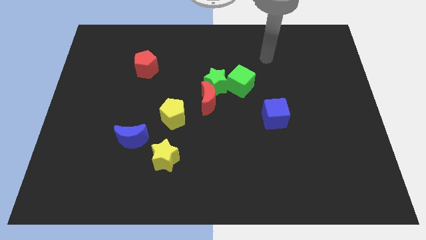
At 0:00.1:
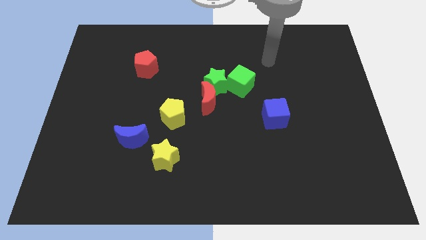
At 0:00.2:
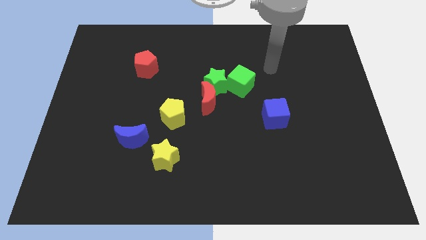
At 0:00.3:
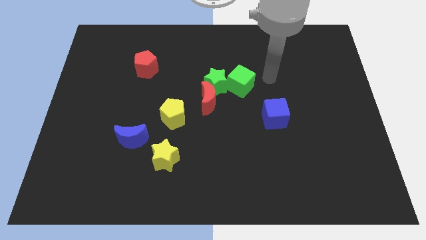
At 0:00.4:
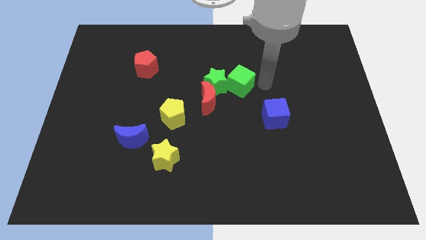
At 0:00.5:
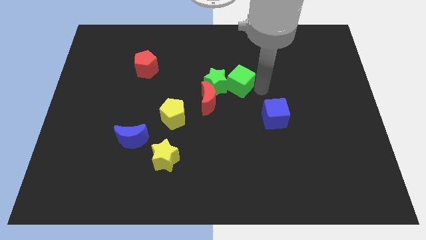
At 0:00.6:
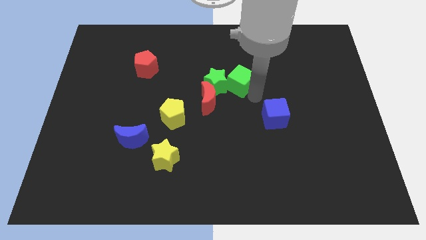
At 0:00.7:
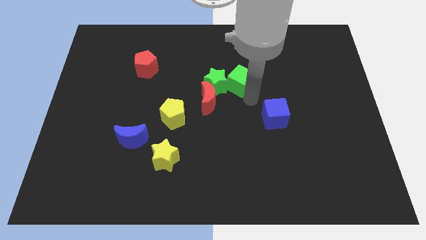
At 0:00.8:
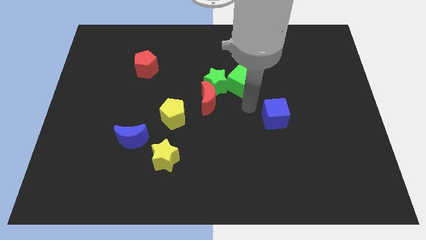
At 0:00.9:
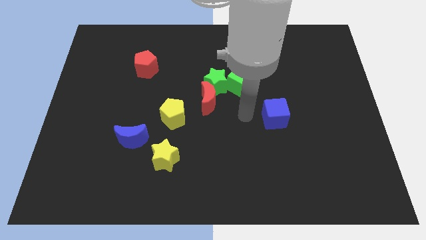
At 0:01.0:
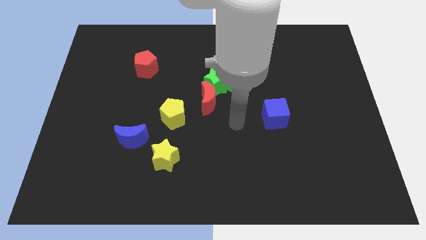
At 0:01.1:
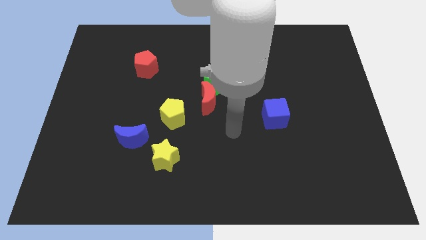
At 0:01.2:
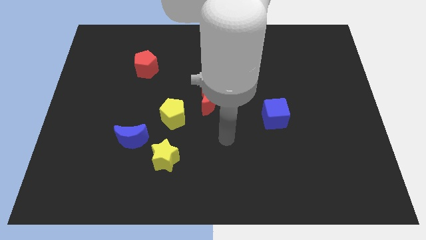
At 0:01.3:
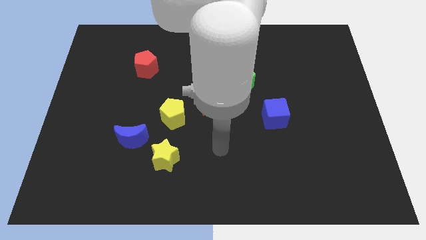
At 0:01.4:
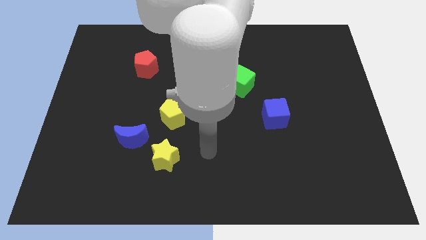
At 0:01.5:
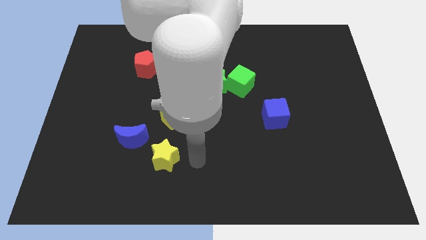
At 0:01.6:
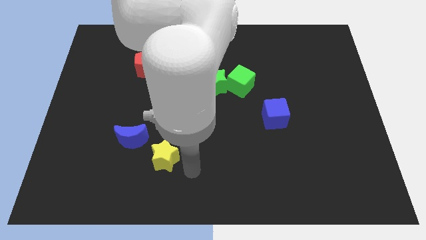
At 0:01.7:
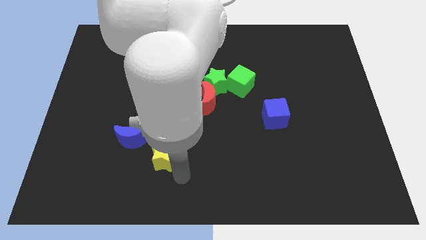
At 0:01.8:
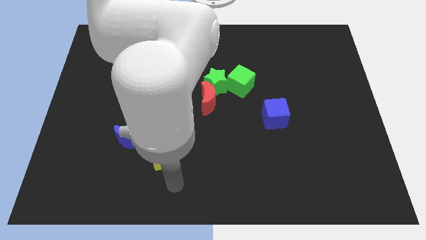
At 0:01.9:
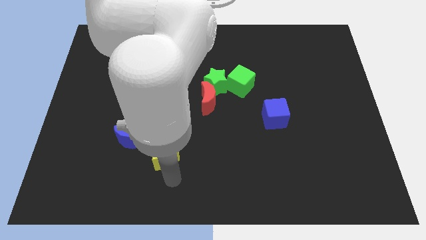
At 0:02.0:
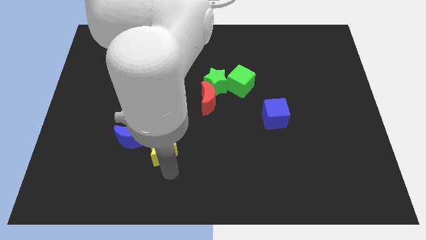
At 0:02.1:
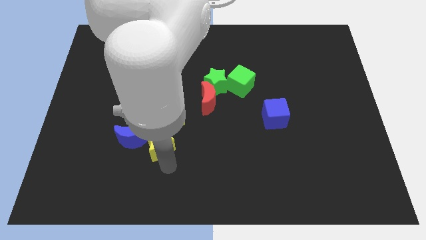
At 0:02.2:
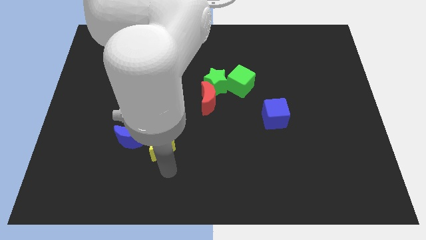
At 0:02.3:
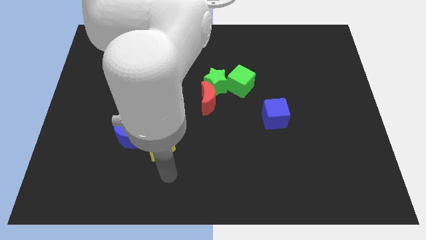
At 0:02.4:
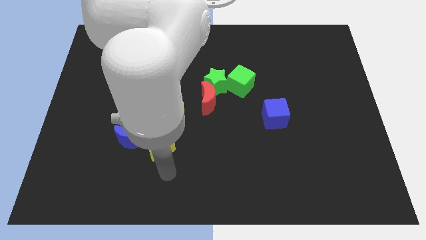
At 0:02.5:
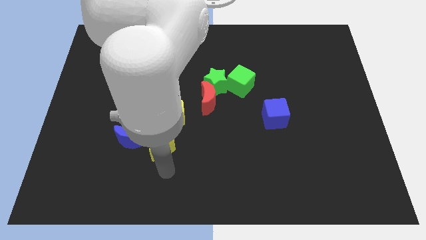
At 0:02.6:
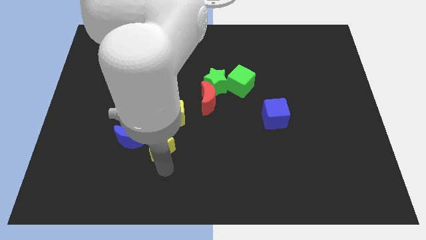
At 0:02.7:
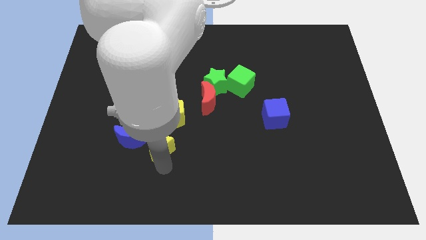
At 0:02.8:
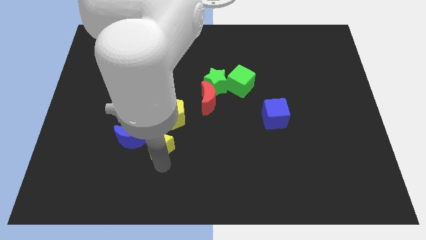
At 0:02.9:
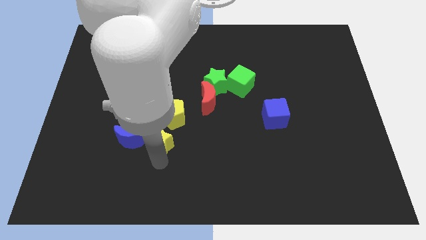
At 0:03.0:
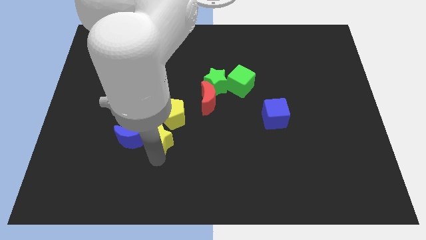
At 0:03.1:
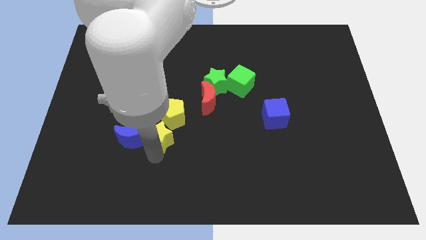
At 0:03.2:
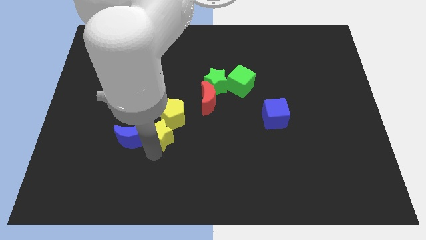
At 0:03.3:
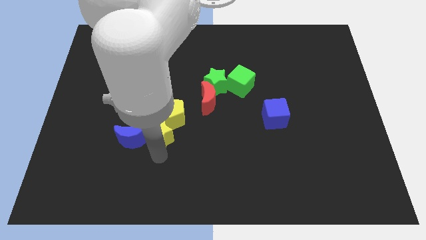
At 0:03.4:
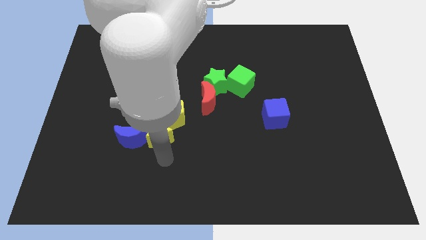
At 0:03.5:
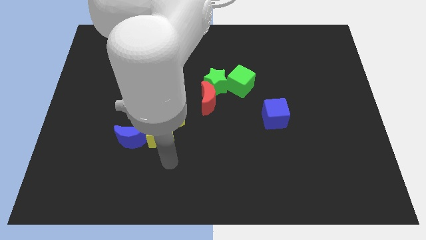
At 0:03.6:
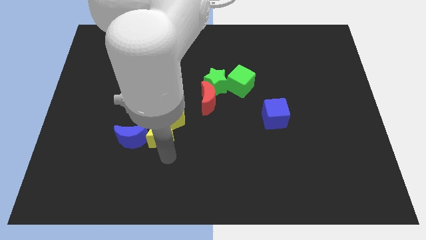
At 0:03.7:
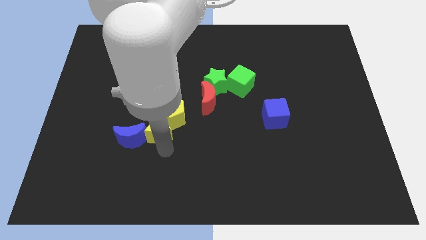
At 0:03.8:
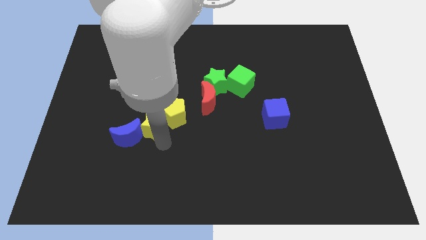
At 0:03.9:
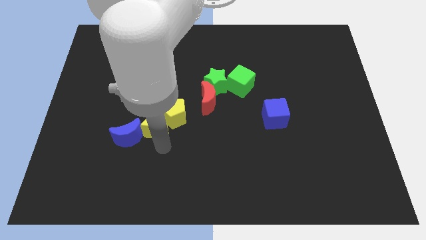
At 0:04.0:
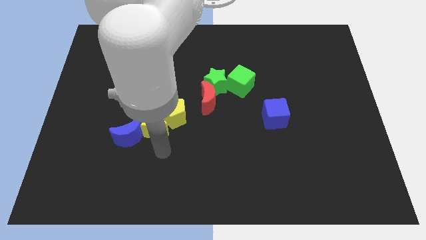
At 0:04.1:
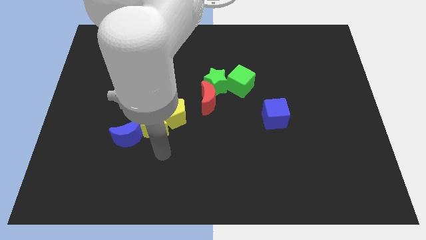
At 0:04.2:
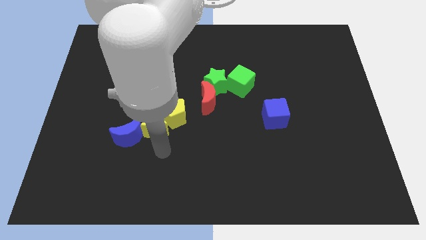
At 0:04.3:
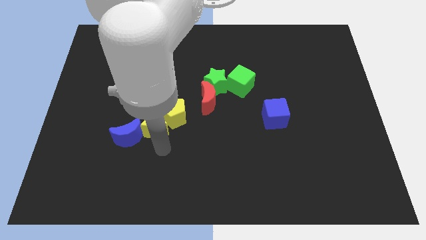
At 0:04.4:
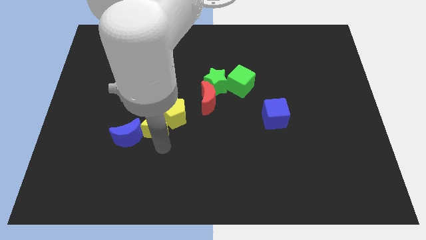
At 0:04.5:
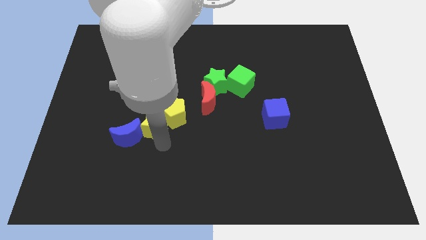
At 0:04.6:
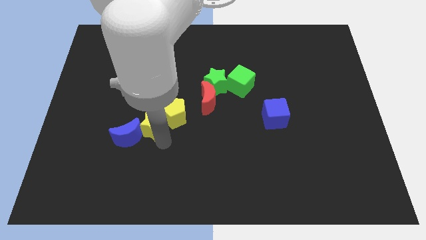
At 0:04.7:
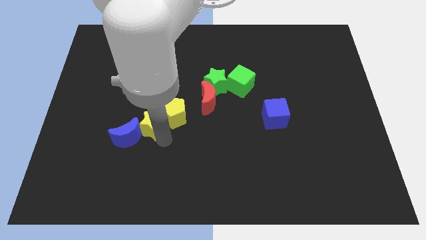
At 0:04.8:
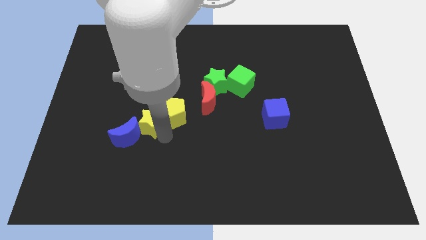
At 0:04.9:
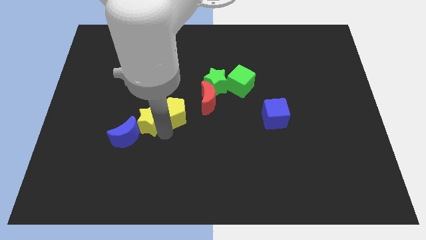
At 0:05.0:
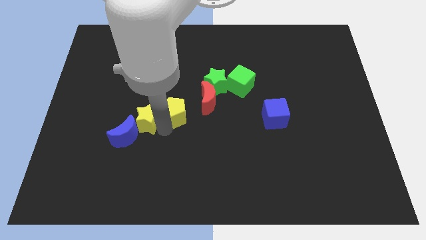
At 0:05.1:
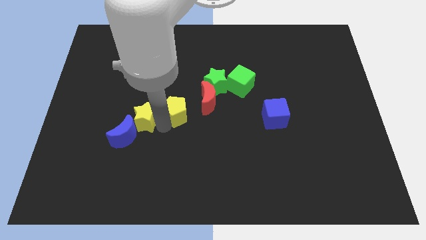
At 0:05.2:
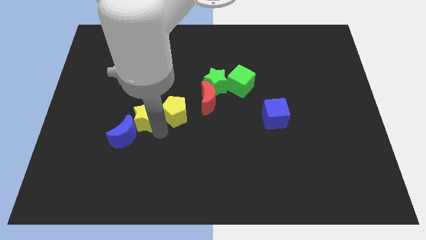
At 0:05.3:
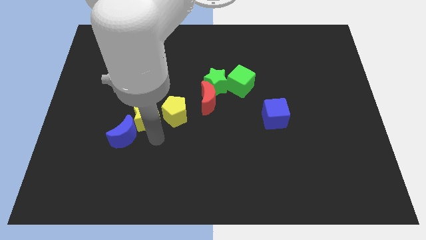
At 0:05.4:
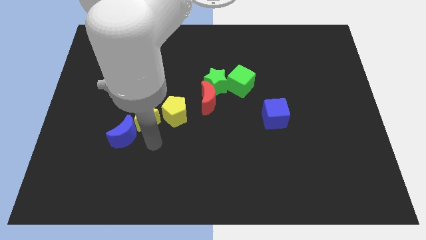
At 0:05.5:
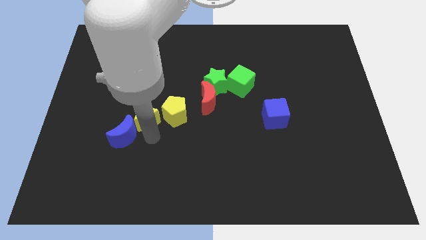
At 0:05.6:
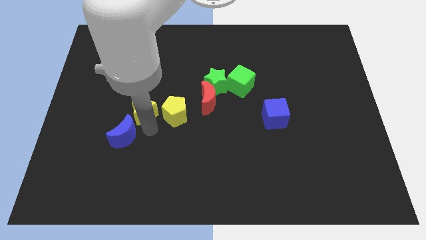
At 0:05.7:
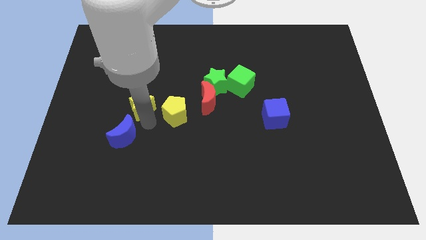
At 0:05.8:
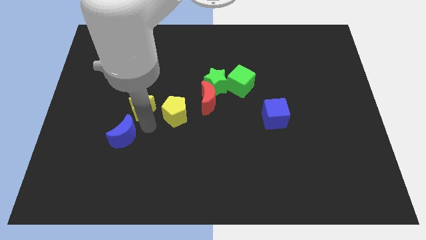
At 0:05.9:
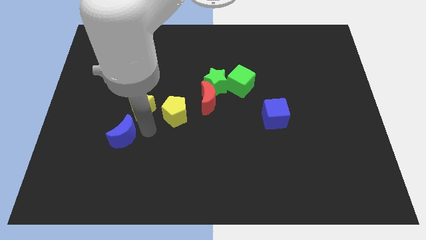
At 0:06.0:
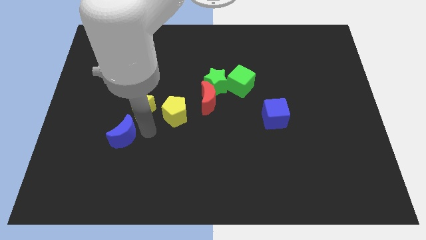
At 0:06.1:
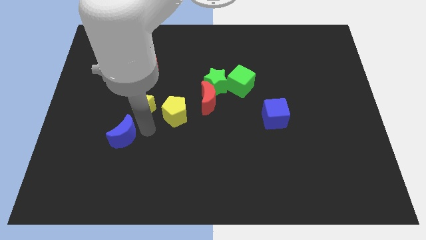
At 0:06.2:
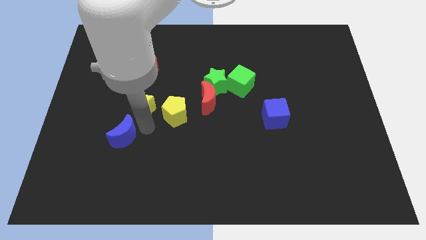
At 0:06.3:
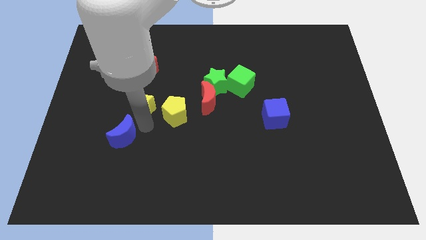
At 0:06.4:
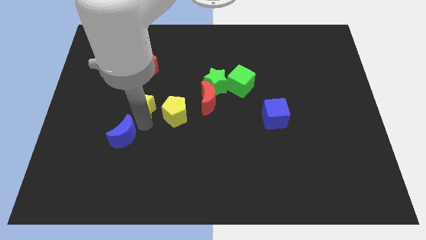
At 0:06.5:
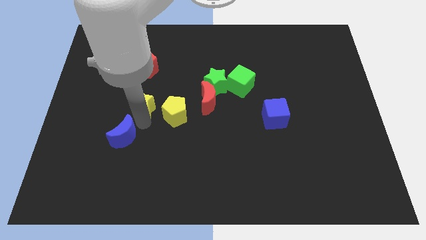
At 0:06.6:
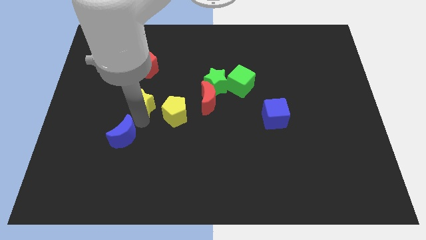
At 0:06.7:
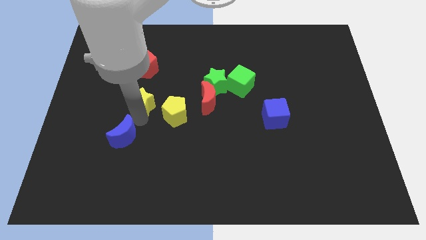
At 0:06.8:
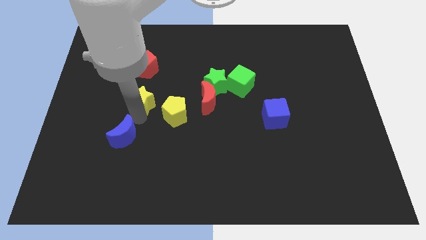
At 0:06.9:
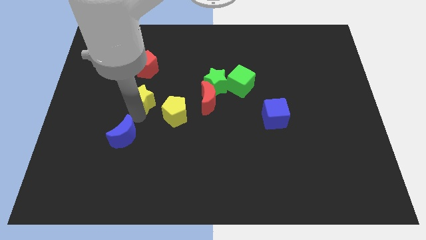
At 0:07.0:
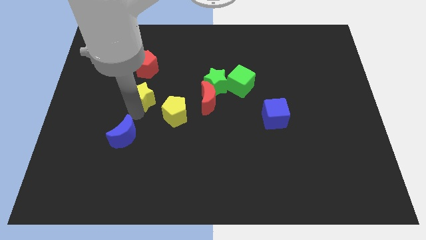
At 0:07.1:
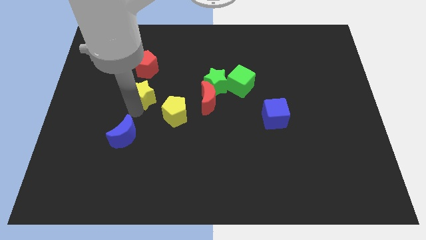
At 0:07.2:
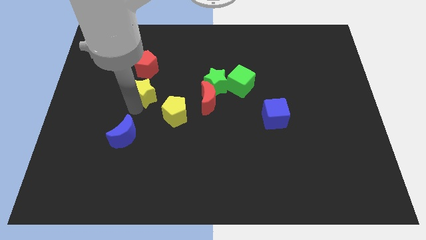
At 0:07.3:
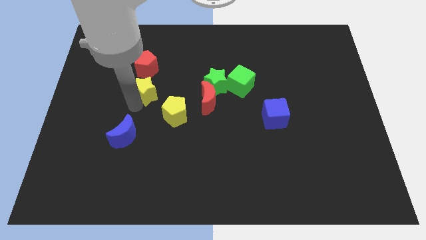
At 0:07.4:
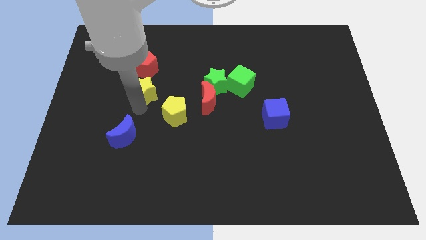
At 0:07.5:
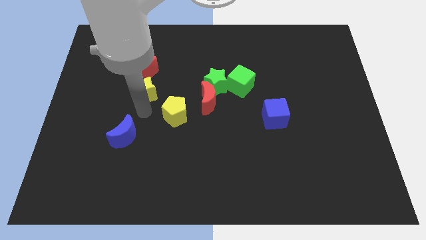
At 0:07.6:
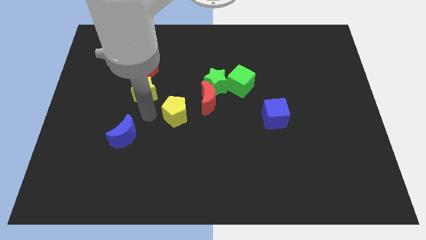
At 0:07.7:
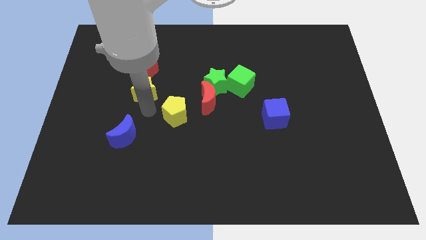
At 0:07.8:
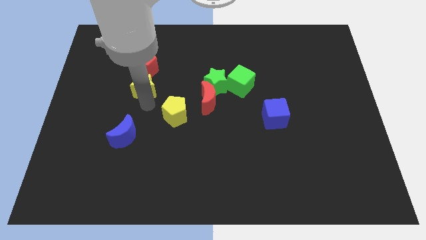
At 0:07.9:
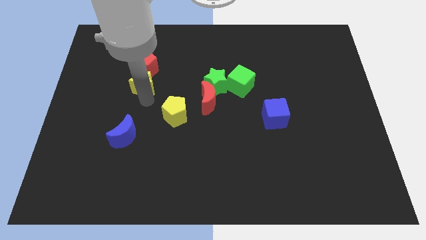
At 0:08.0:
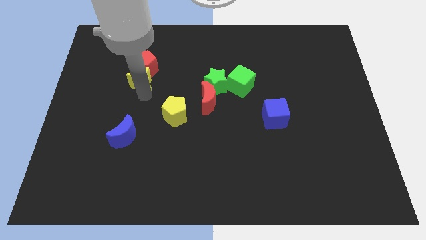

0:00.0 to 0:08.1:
push the yellow star to the red pentagon
